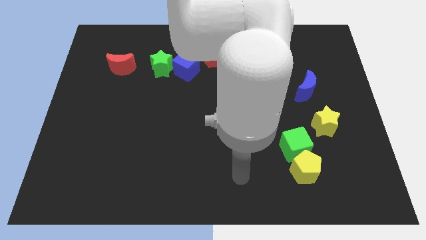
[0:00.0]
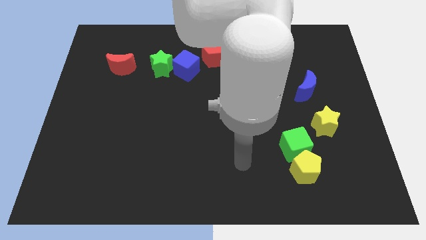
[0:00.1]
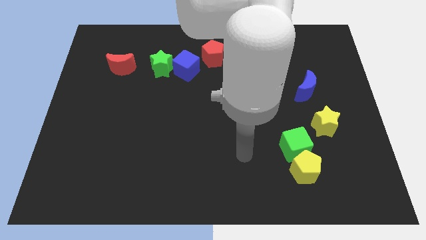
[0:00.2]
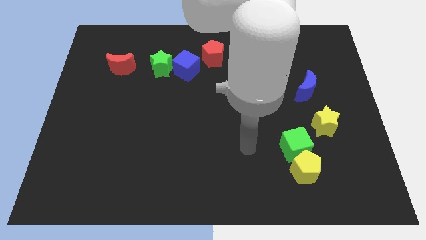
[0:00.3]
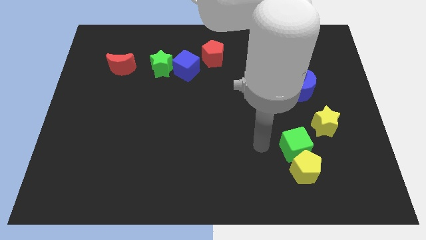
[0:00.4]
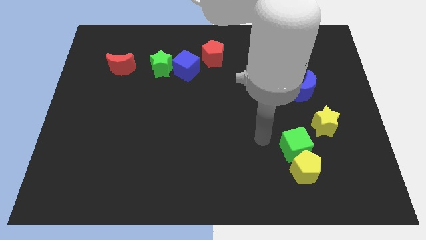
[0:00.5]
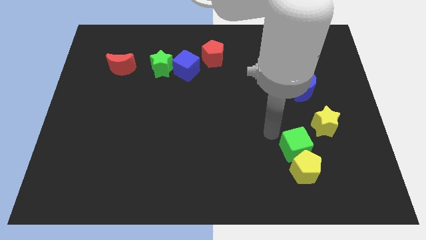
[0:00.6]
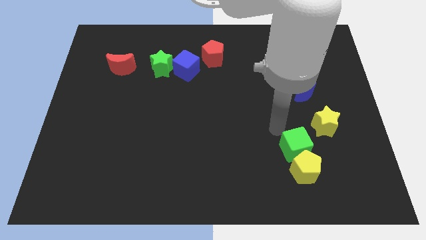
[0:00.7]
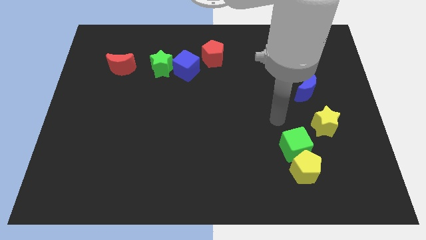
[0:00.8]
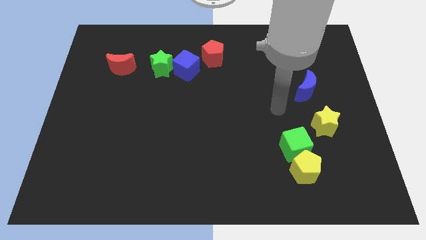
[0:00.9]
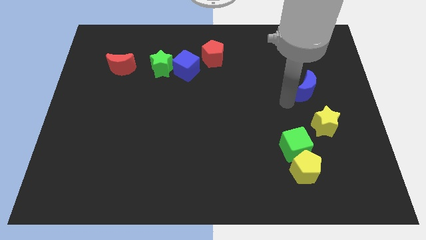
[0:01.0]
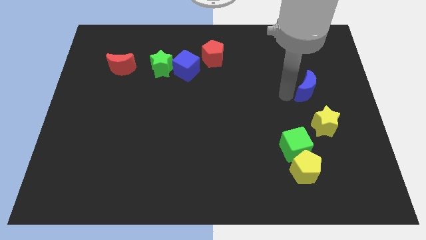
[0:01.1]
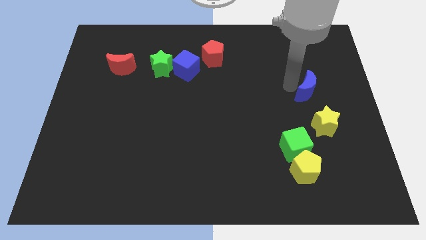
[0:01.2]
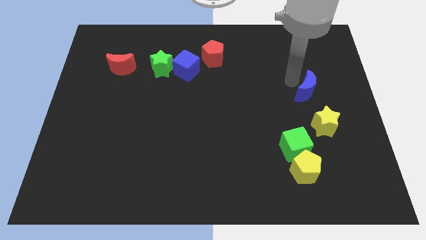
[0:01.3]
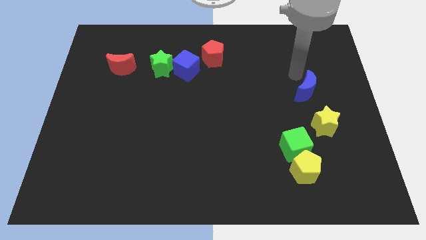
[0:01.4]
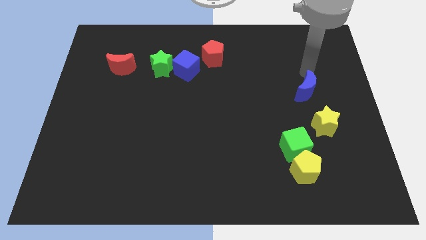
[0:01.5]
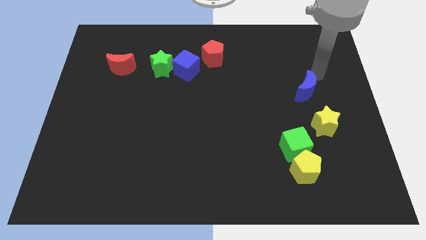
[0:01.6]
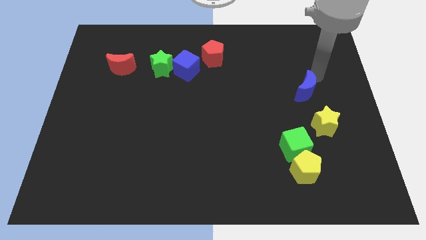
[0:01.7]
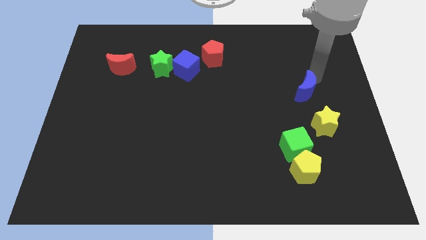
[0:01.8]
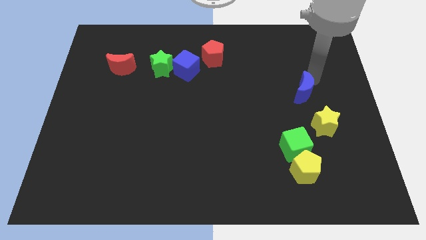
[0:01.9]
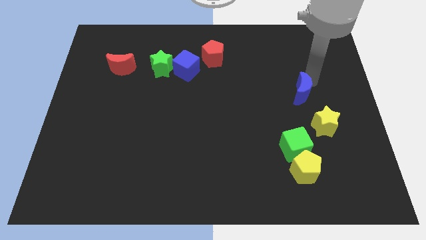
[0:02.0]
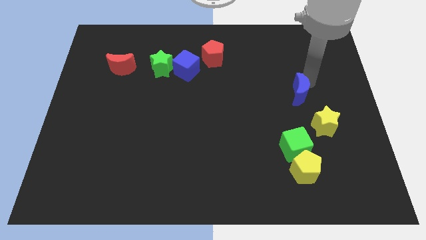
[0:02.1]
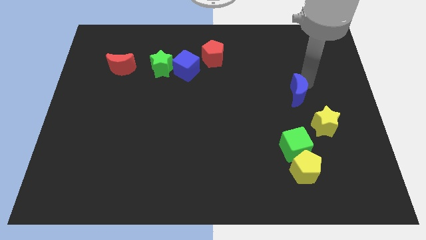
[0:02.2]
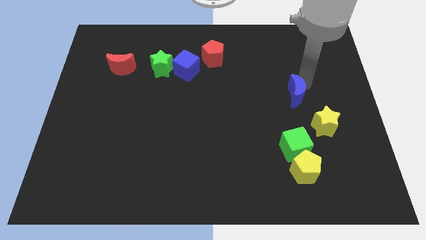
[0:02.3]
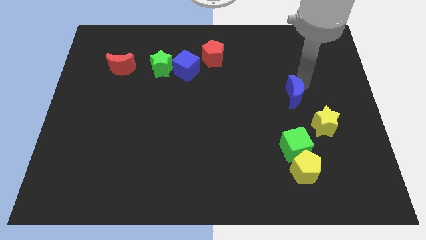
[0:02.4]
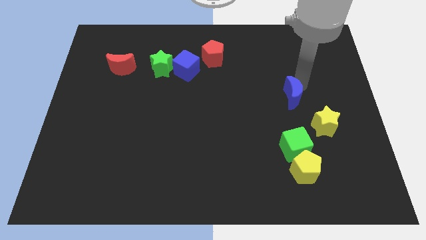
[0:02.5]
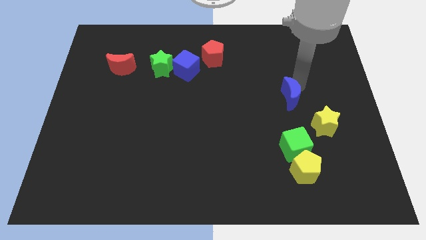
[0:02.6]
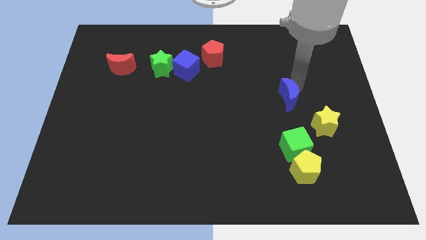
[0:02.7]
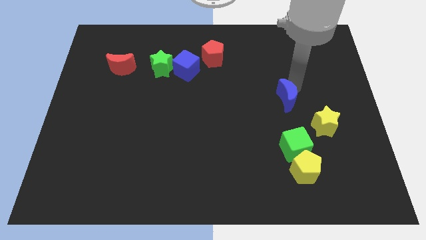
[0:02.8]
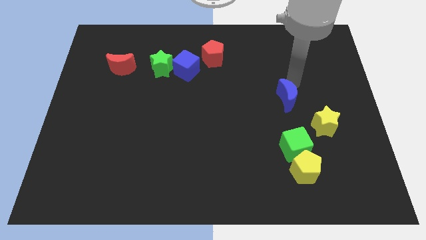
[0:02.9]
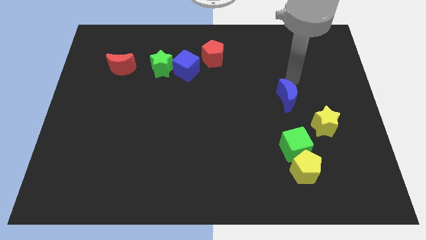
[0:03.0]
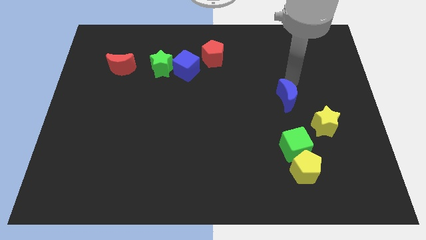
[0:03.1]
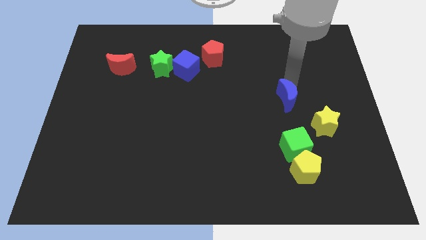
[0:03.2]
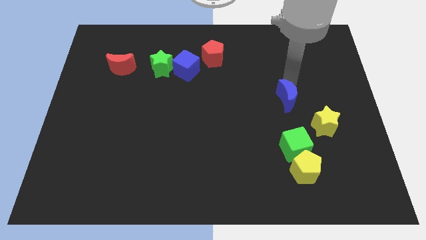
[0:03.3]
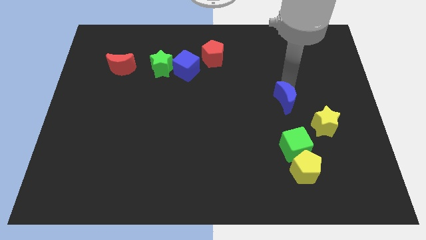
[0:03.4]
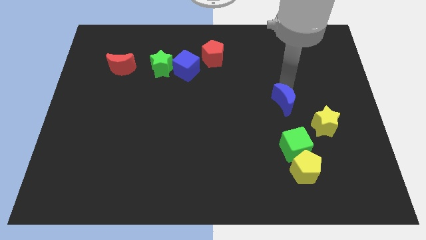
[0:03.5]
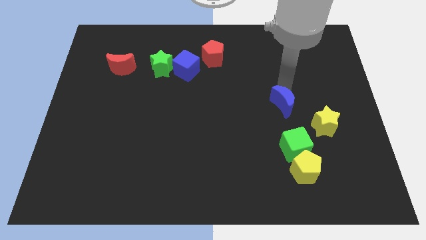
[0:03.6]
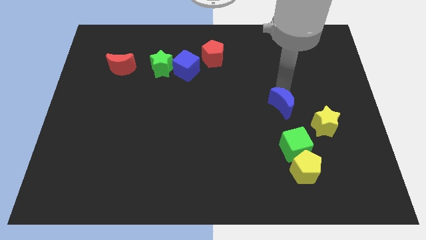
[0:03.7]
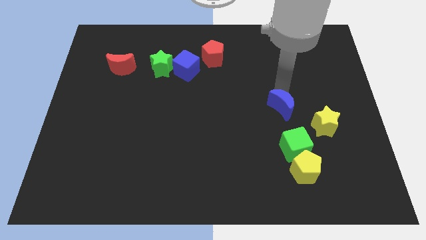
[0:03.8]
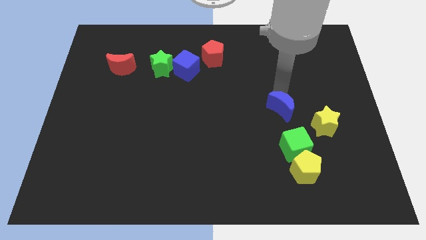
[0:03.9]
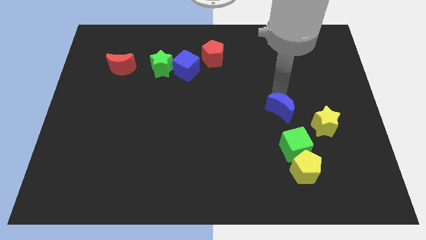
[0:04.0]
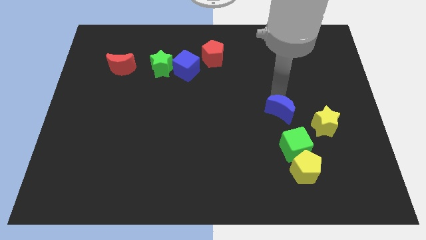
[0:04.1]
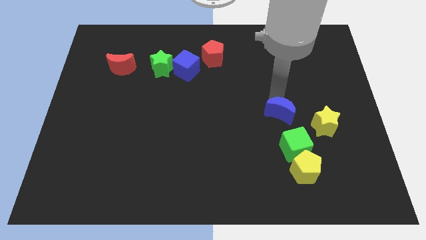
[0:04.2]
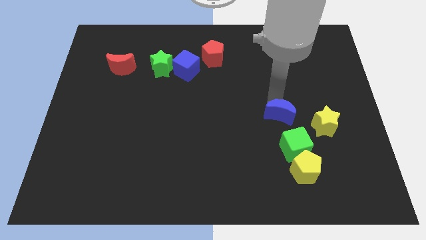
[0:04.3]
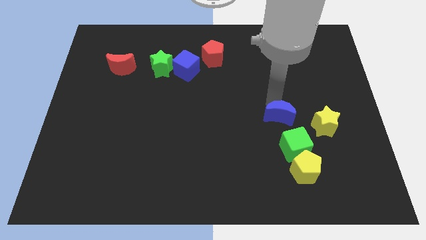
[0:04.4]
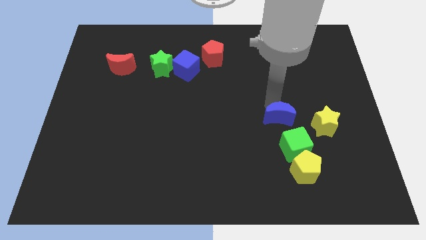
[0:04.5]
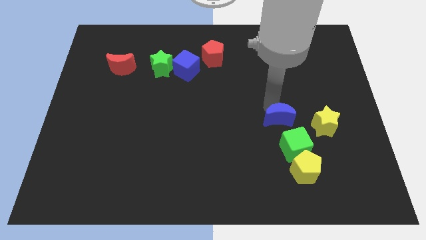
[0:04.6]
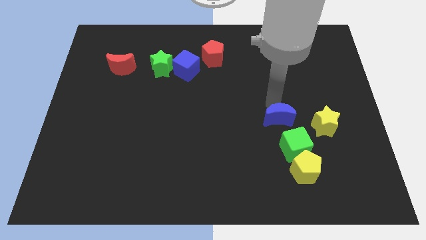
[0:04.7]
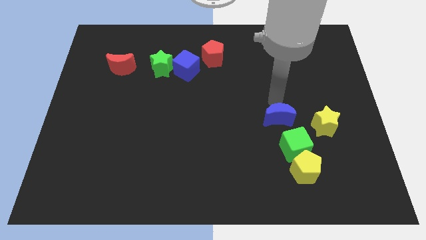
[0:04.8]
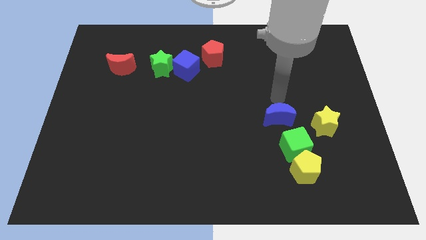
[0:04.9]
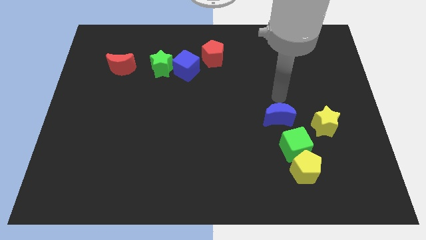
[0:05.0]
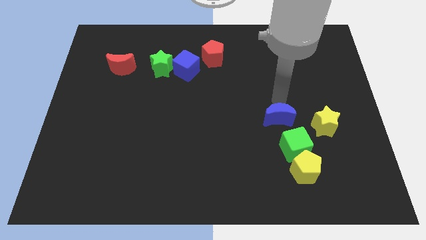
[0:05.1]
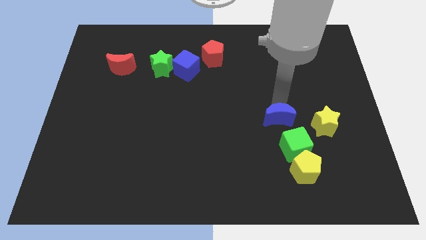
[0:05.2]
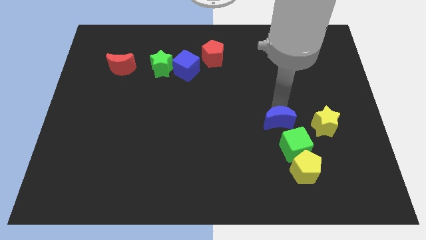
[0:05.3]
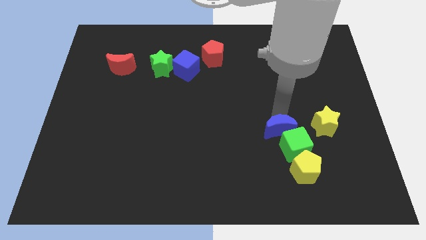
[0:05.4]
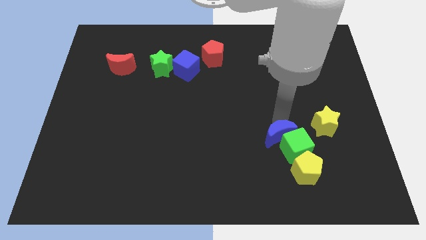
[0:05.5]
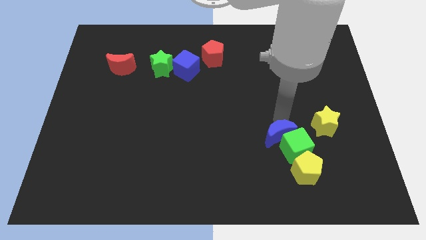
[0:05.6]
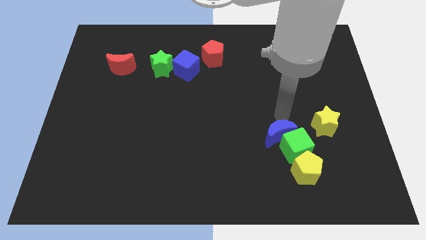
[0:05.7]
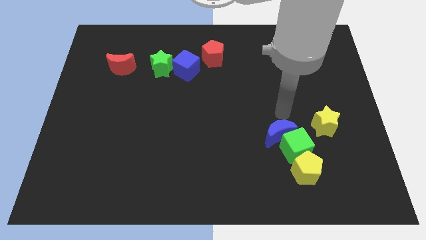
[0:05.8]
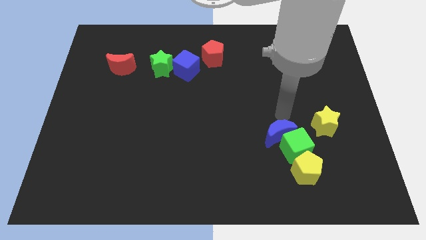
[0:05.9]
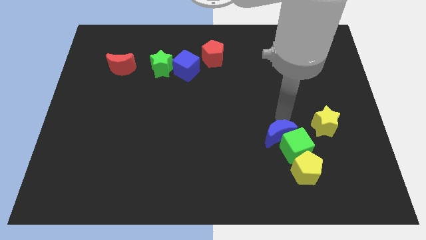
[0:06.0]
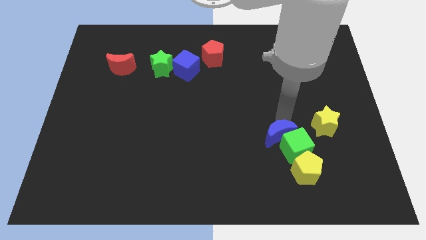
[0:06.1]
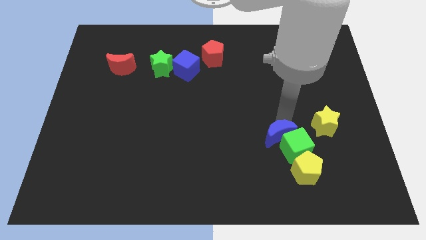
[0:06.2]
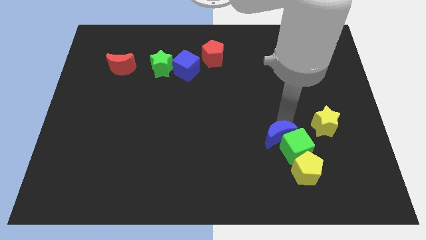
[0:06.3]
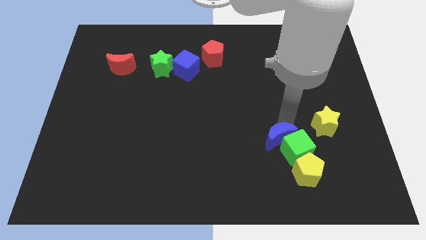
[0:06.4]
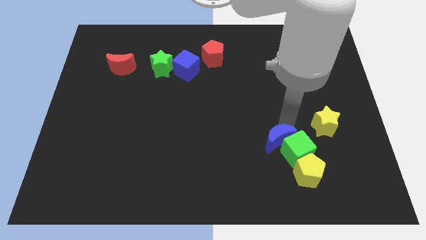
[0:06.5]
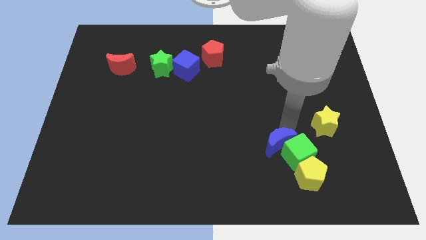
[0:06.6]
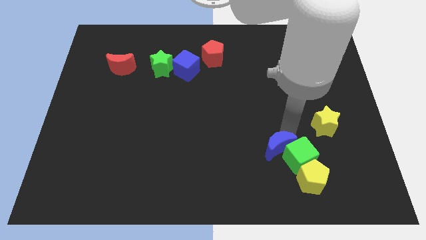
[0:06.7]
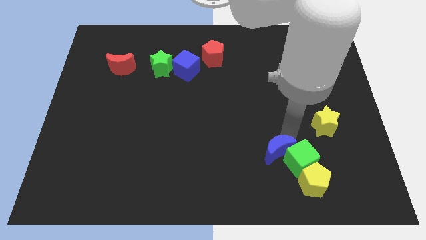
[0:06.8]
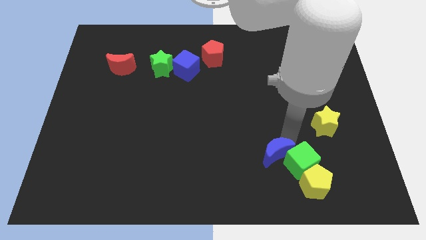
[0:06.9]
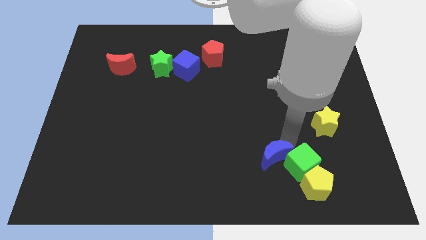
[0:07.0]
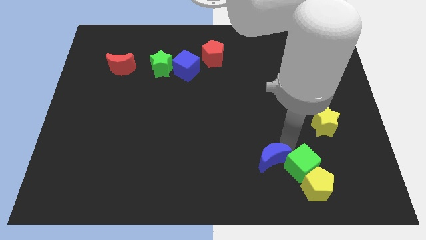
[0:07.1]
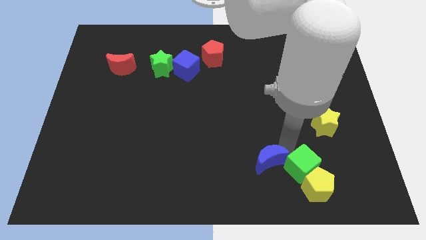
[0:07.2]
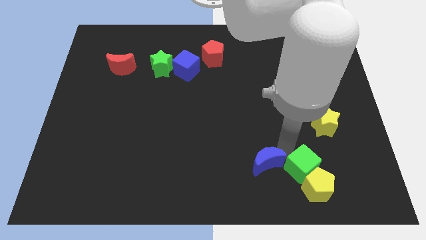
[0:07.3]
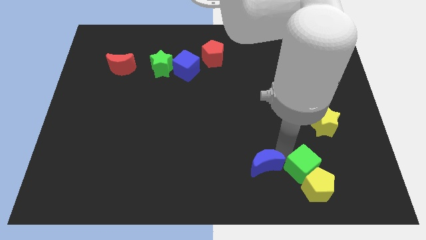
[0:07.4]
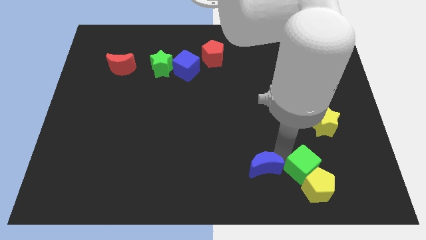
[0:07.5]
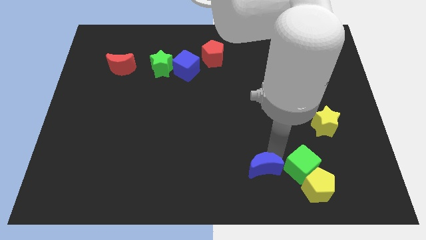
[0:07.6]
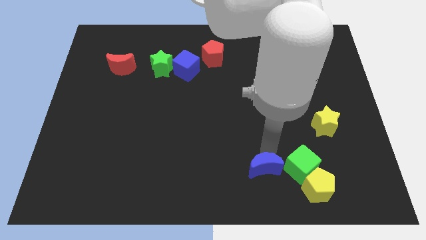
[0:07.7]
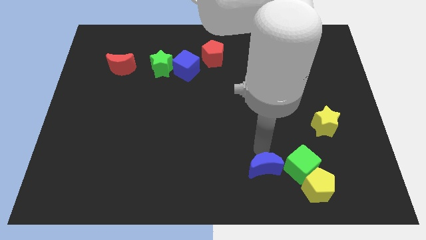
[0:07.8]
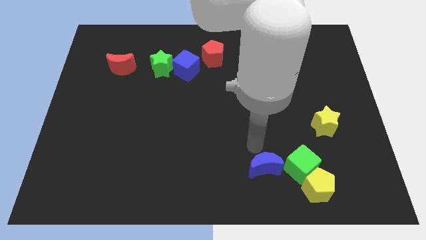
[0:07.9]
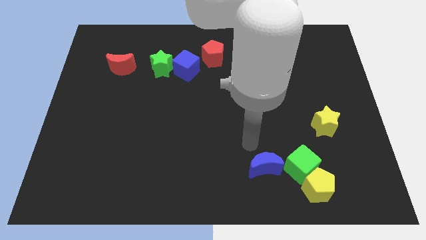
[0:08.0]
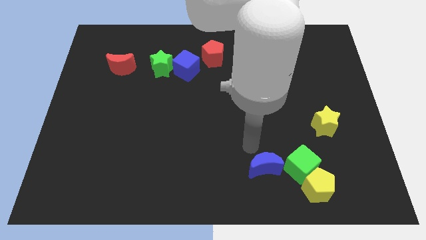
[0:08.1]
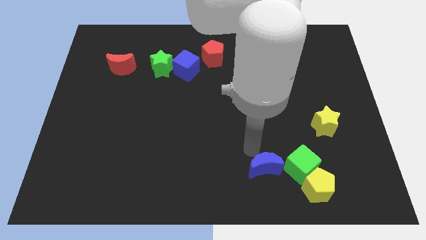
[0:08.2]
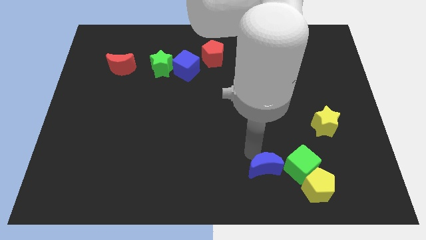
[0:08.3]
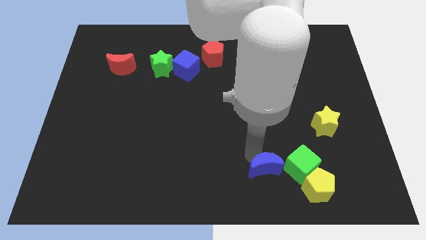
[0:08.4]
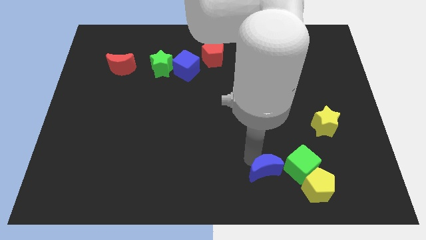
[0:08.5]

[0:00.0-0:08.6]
move the blue moon to the bottom left of the green cube
